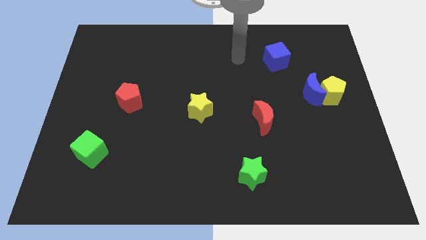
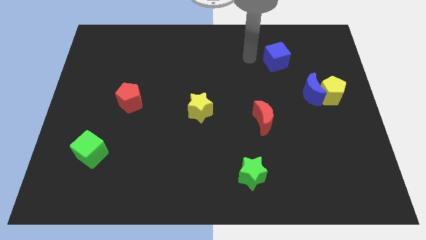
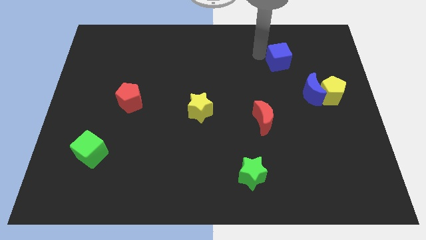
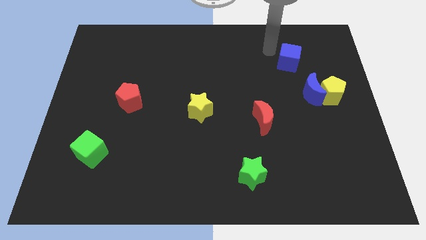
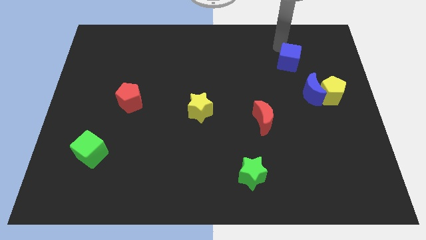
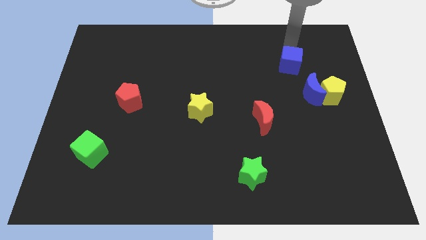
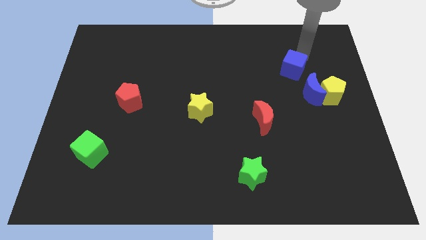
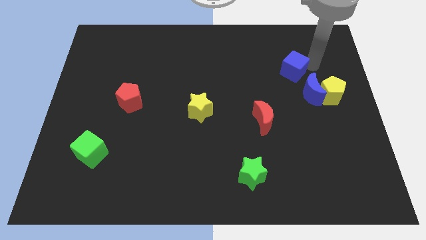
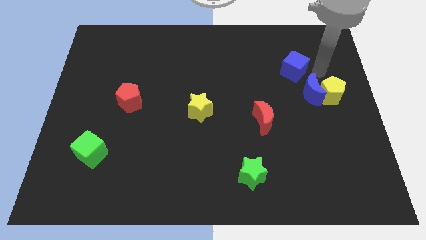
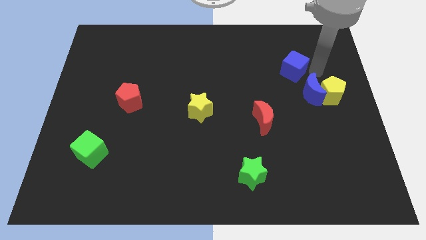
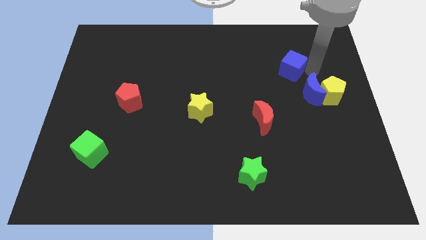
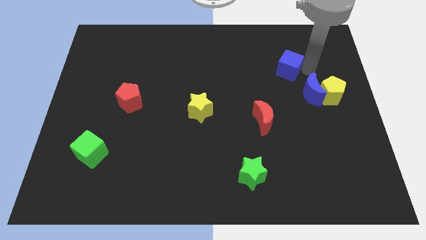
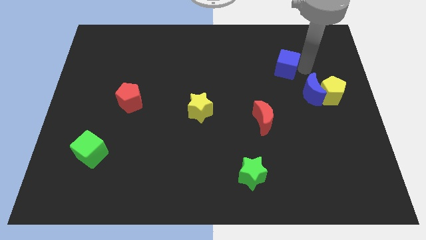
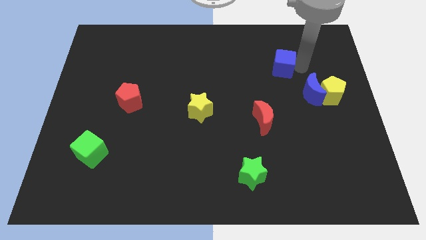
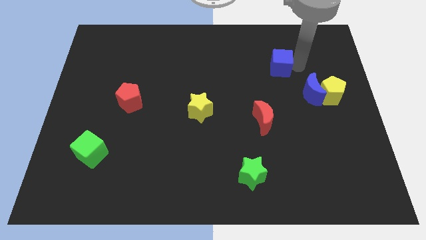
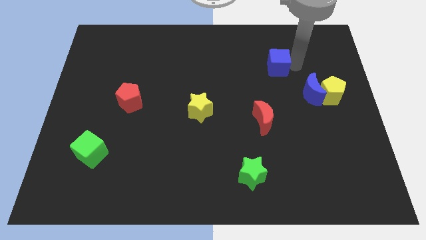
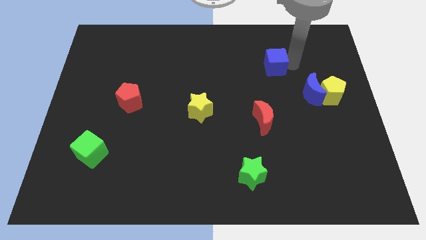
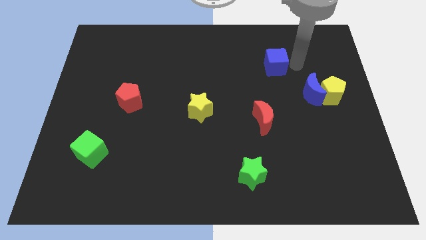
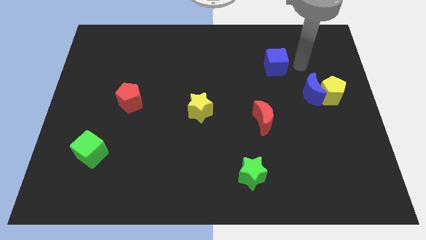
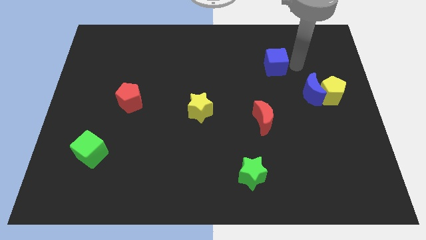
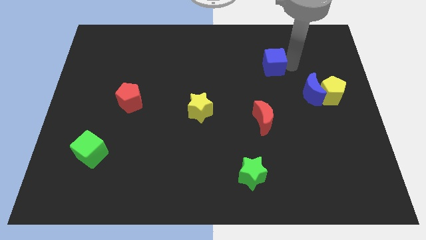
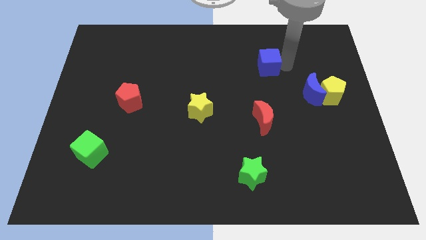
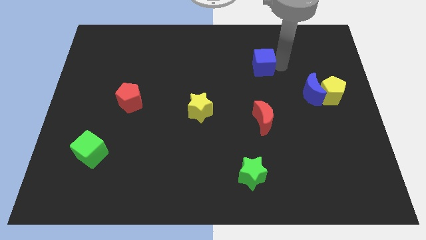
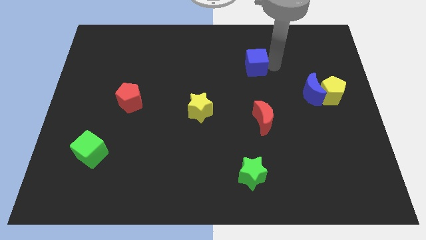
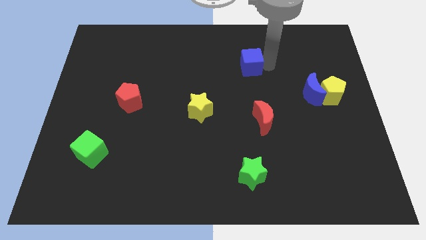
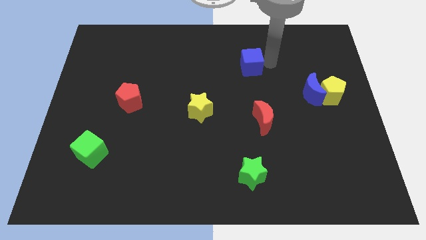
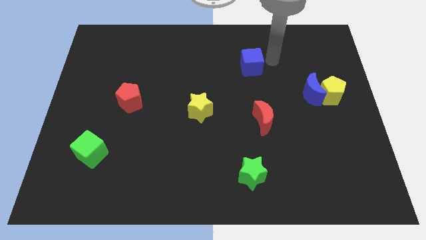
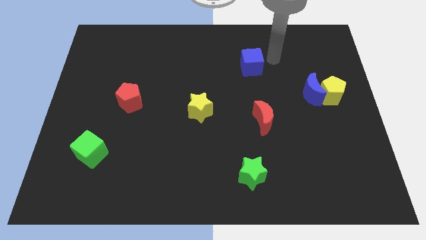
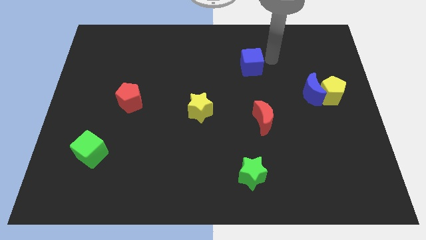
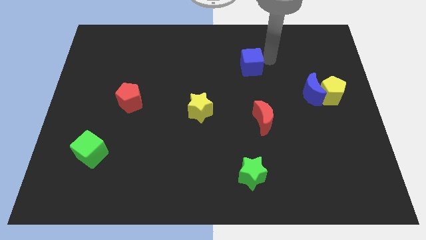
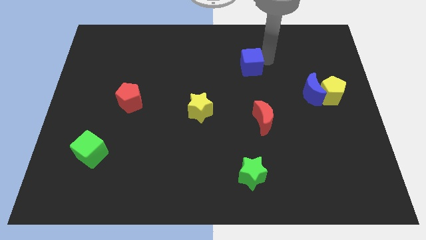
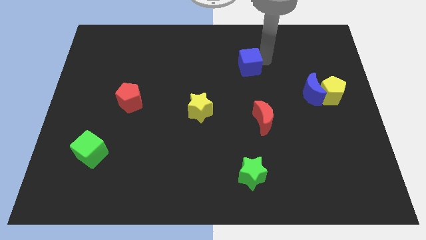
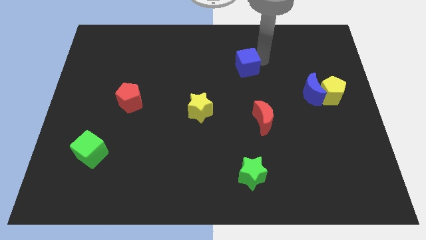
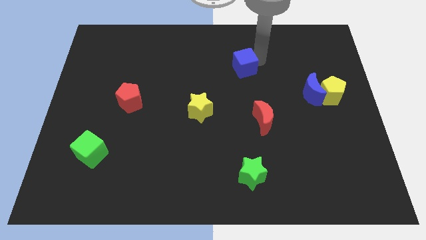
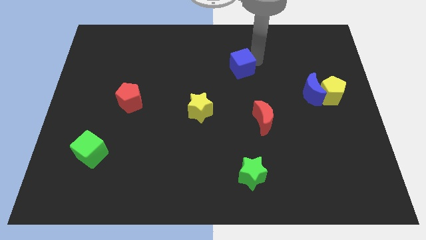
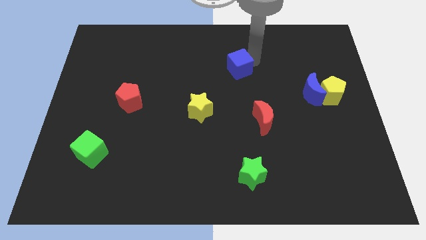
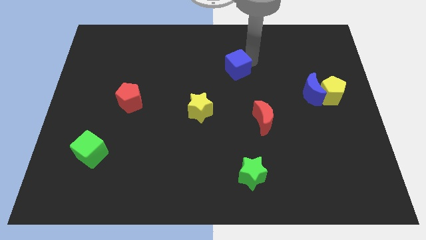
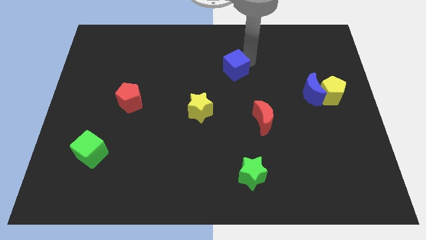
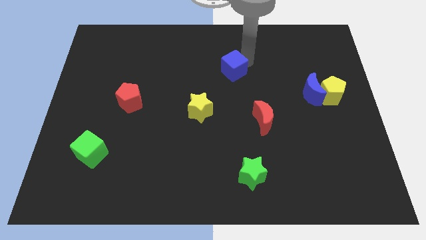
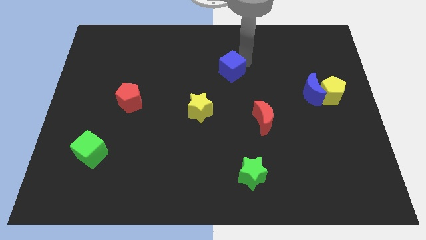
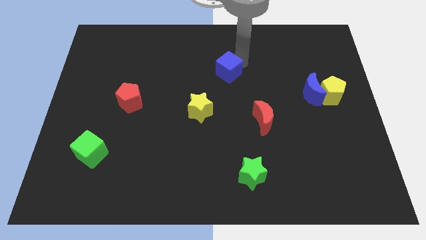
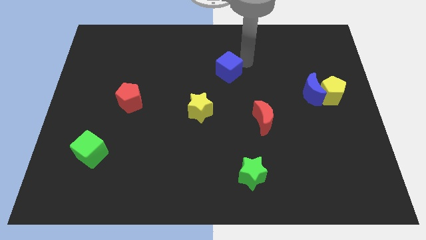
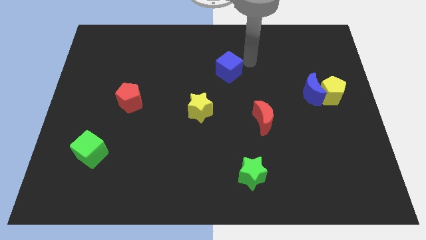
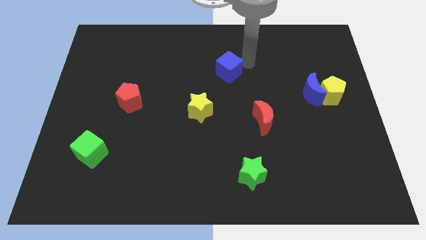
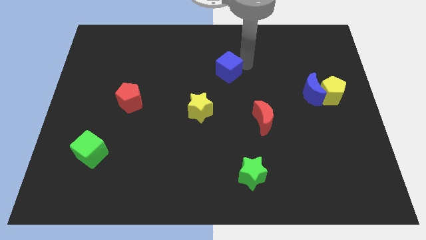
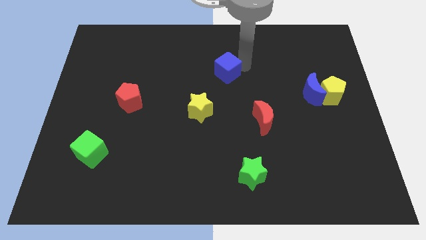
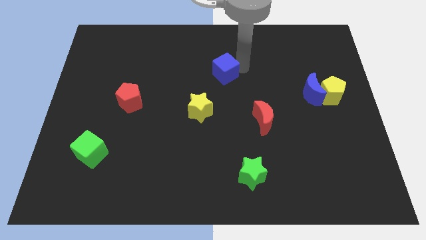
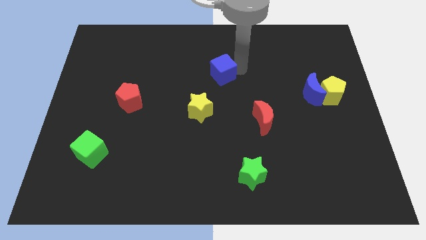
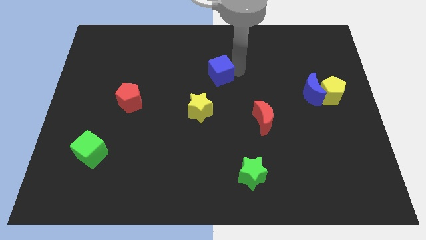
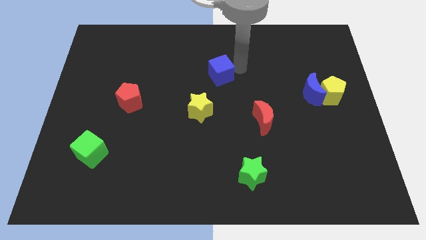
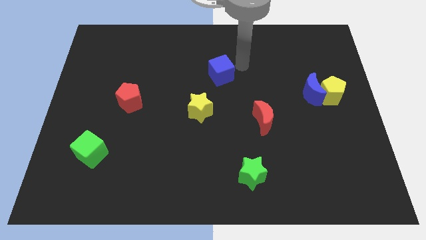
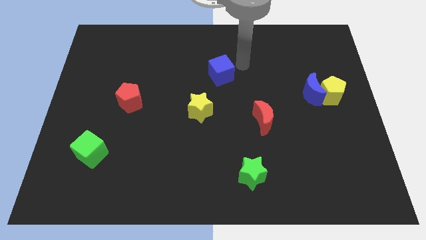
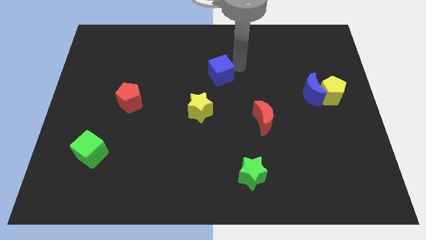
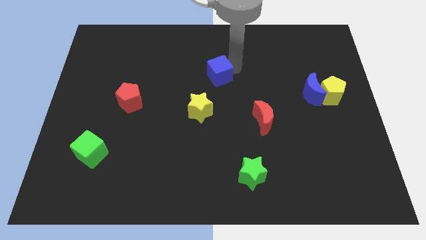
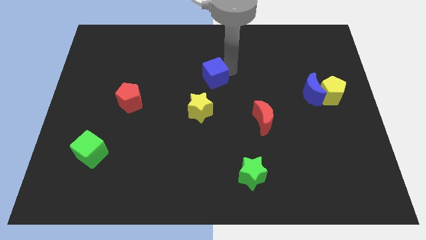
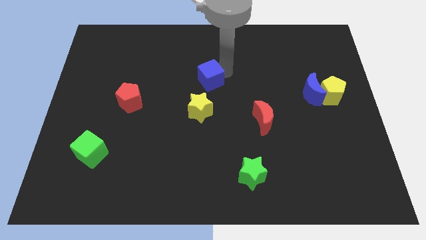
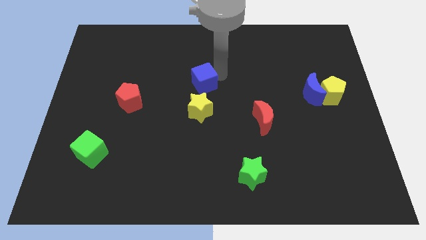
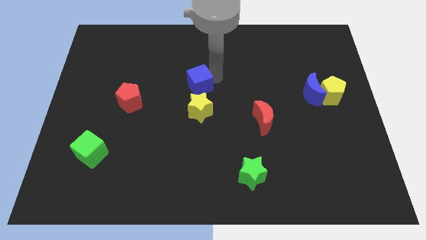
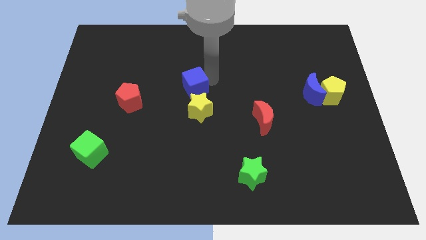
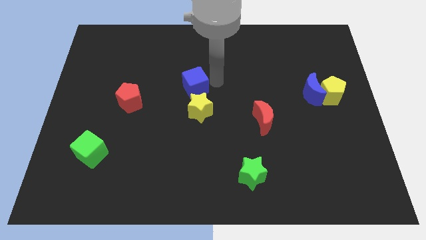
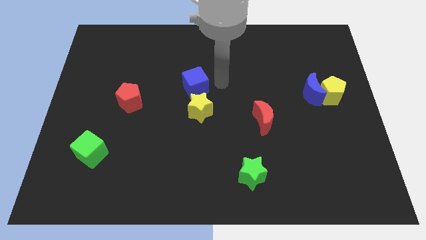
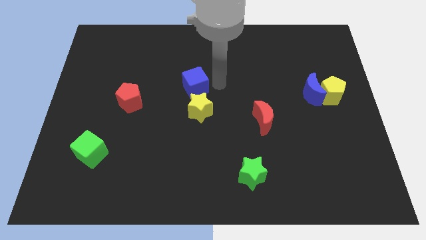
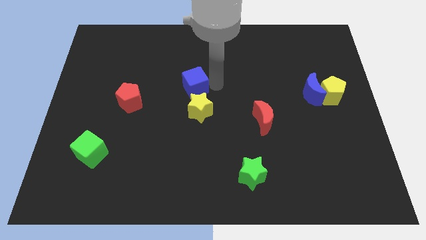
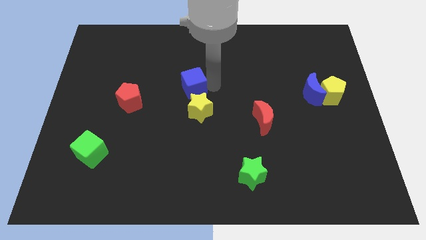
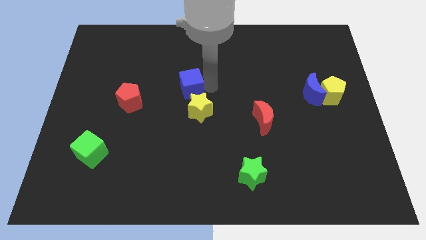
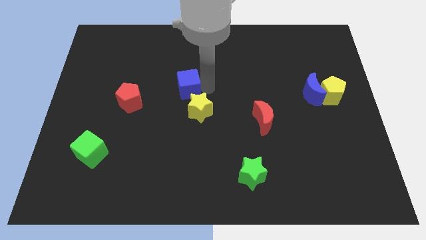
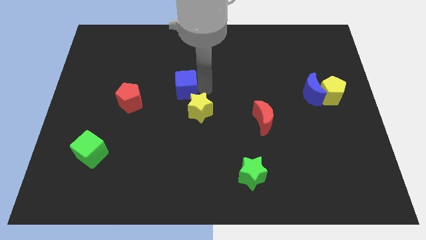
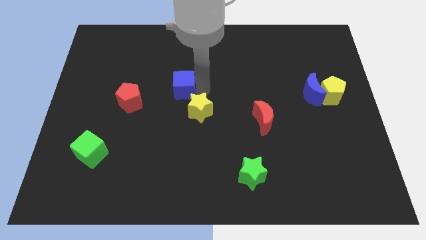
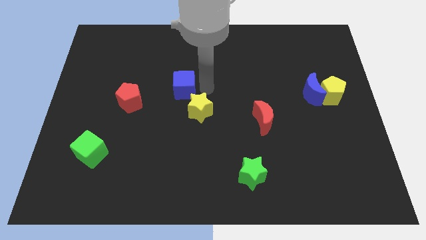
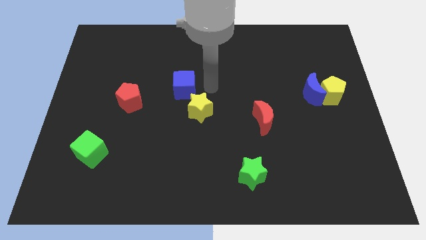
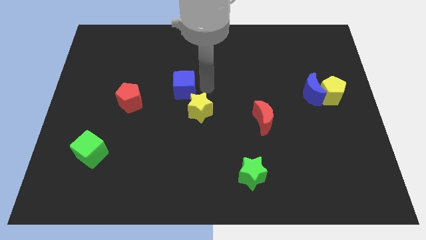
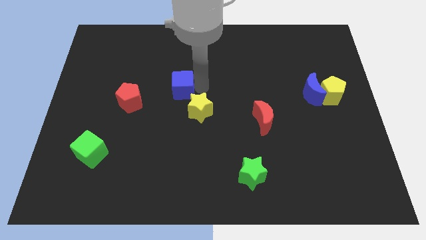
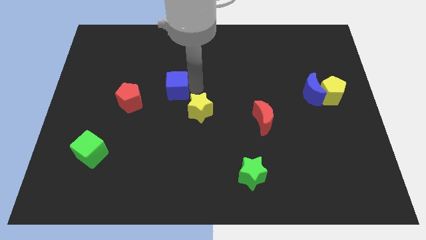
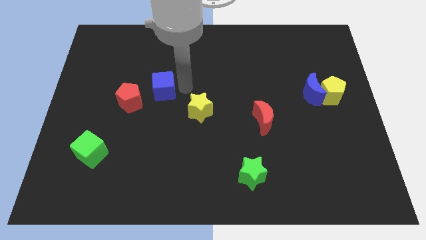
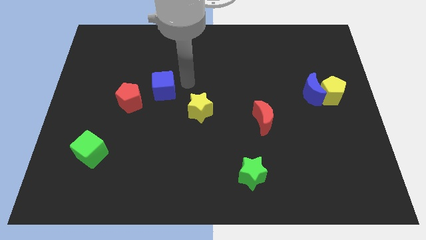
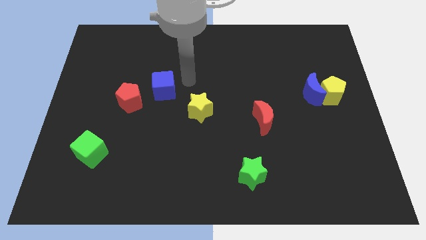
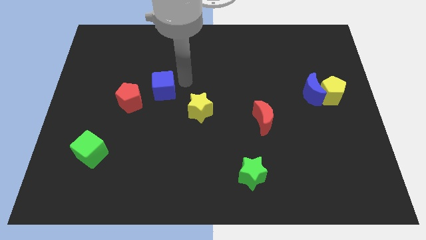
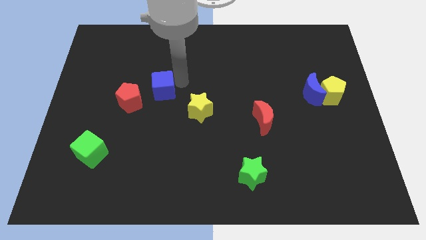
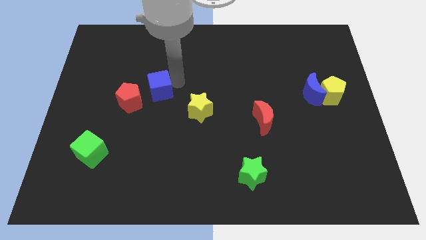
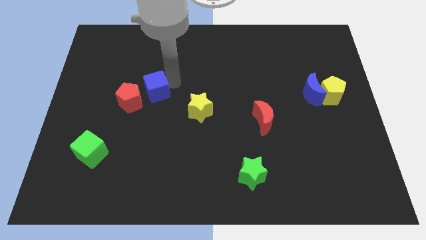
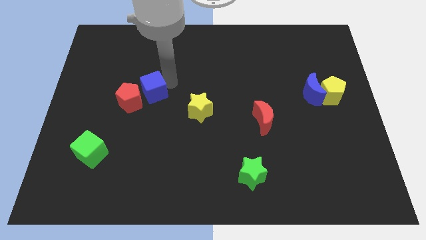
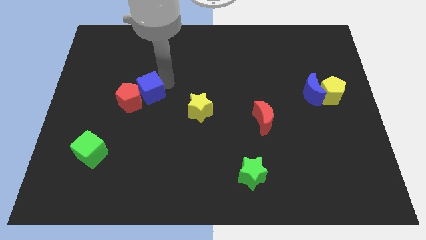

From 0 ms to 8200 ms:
move the blue cube next to the red pentagon
